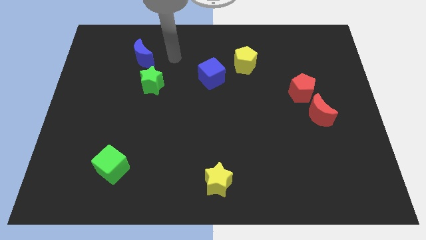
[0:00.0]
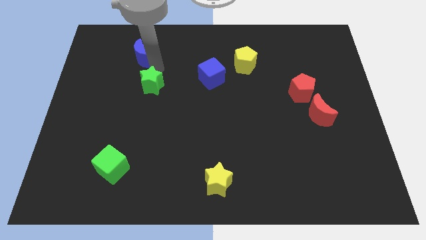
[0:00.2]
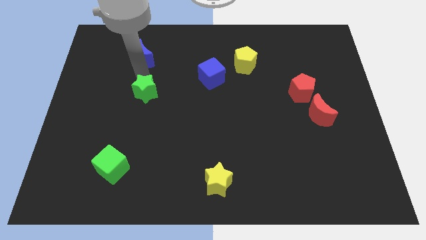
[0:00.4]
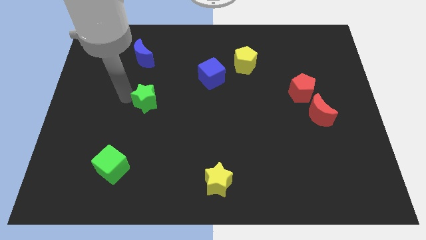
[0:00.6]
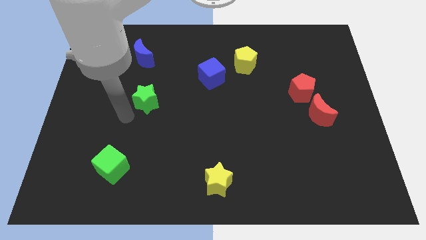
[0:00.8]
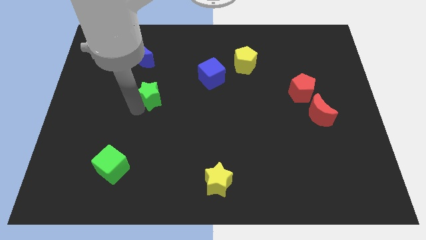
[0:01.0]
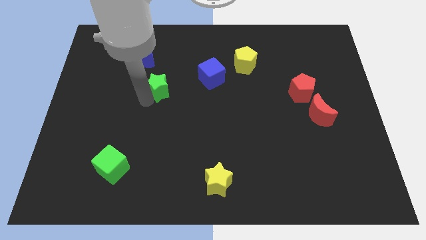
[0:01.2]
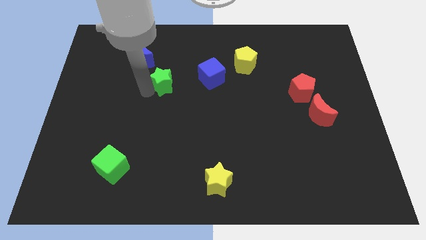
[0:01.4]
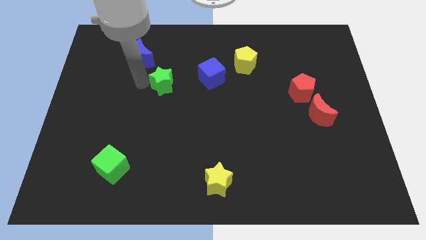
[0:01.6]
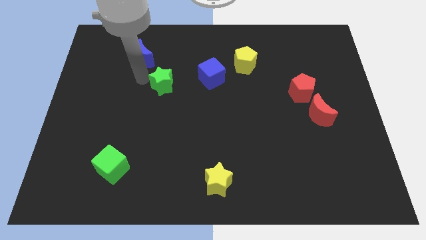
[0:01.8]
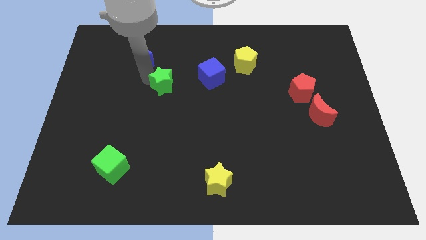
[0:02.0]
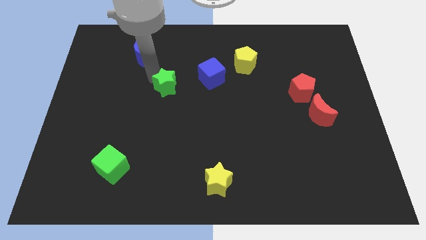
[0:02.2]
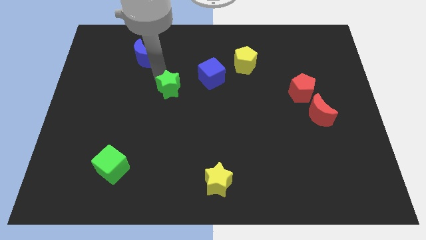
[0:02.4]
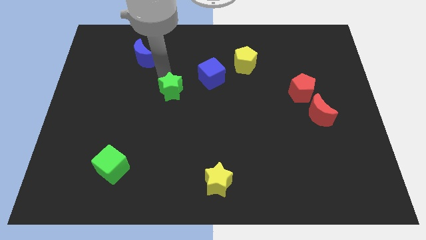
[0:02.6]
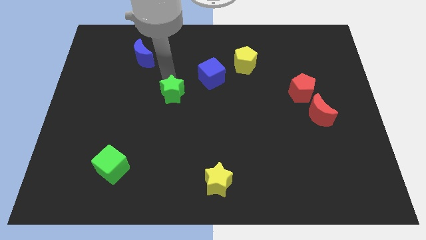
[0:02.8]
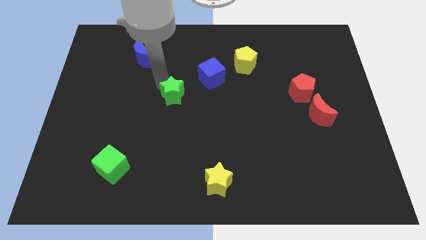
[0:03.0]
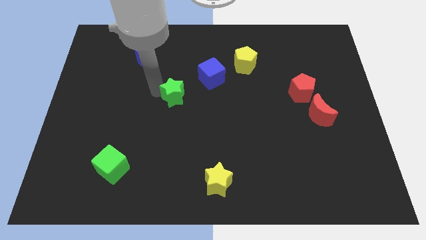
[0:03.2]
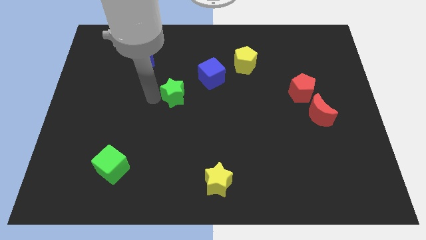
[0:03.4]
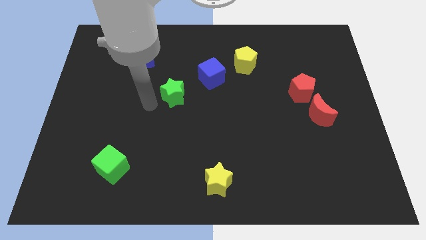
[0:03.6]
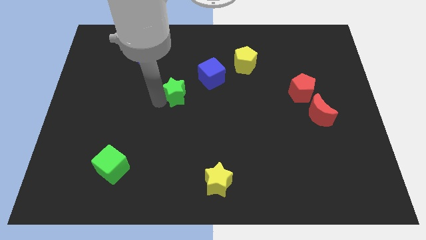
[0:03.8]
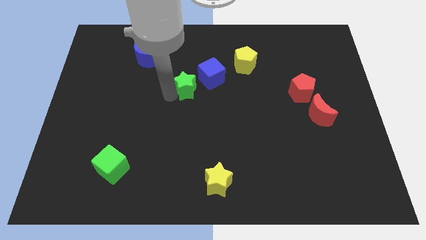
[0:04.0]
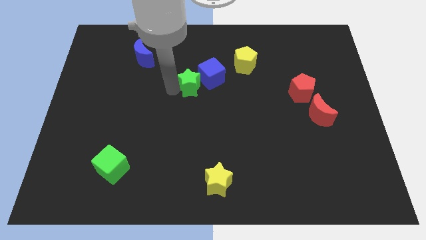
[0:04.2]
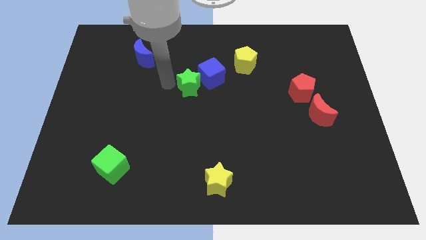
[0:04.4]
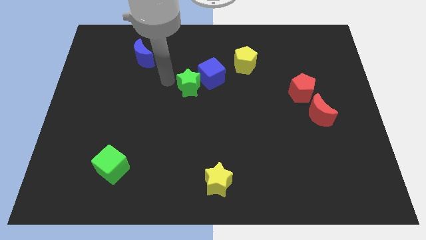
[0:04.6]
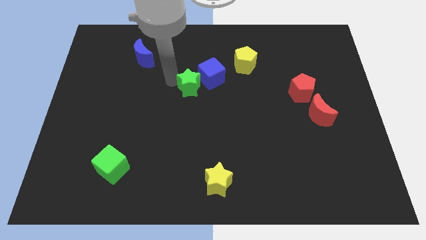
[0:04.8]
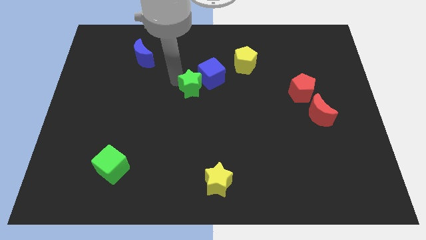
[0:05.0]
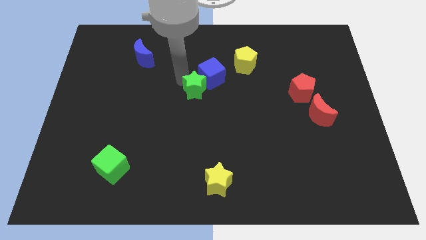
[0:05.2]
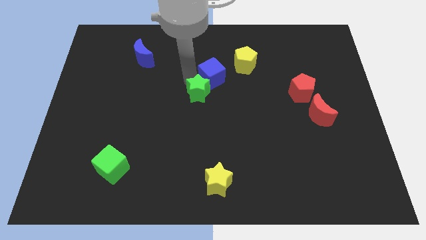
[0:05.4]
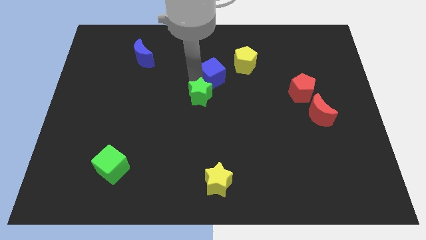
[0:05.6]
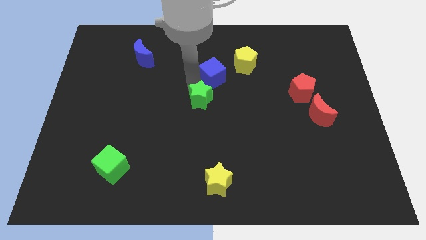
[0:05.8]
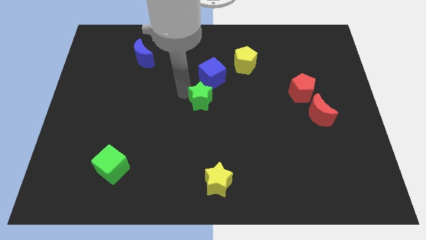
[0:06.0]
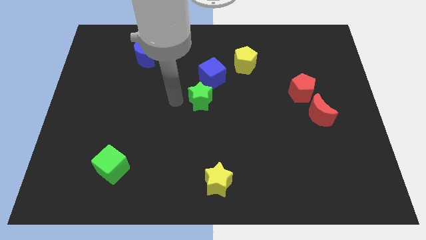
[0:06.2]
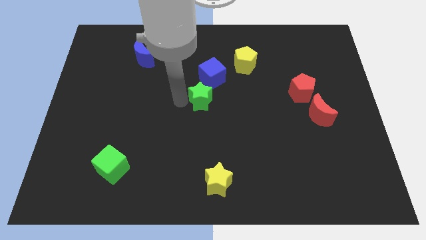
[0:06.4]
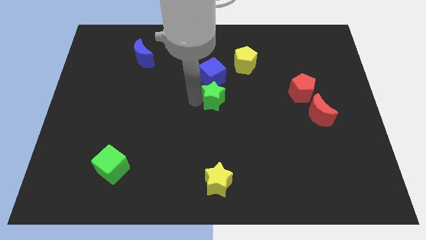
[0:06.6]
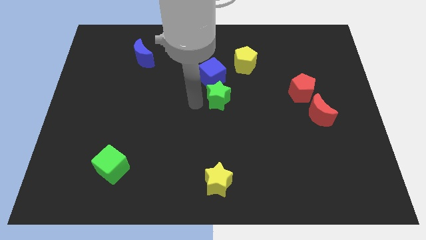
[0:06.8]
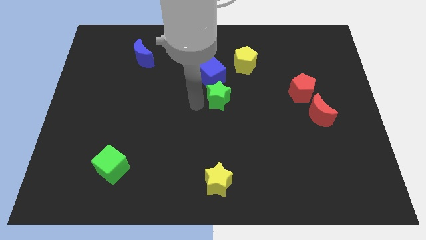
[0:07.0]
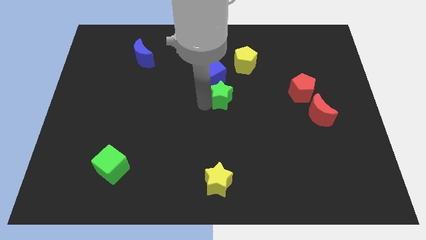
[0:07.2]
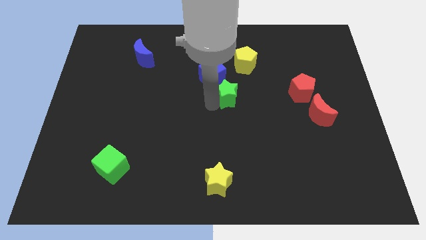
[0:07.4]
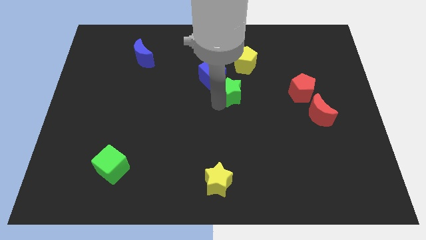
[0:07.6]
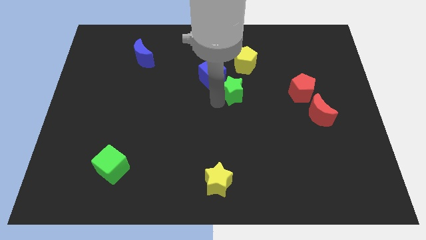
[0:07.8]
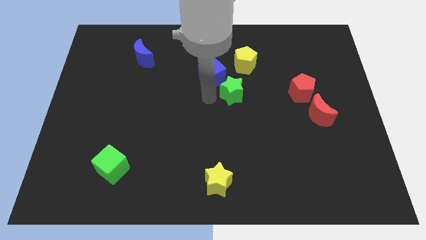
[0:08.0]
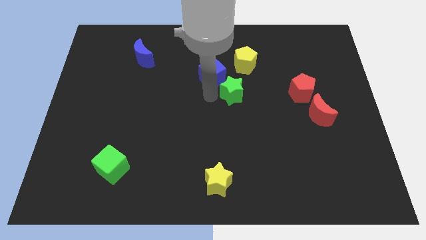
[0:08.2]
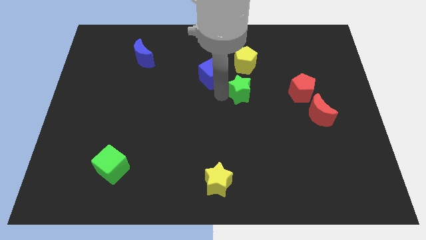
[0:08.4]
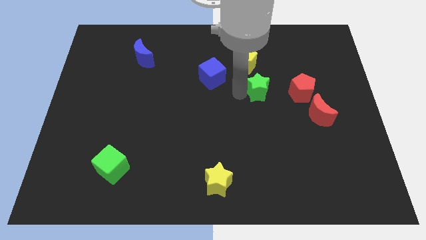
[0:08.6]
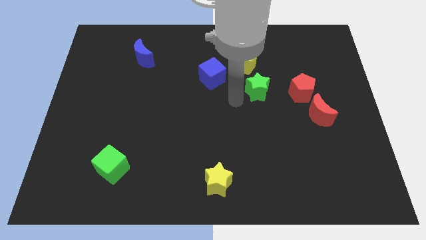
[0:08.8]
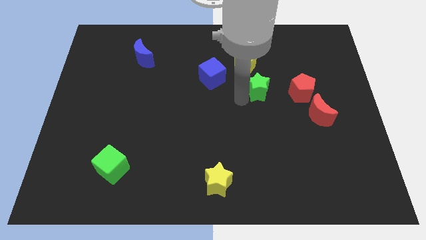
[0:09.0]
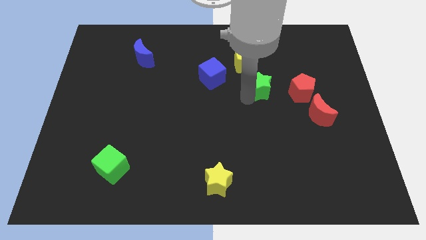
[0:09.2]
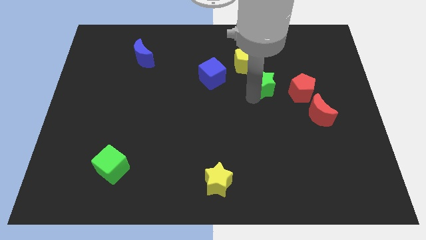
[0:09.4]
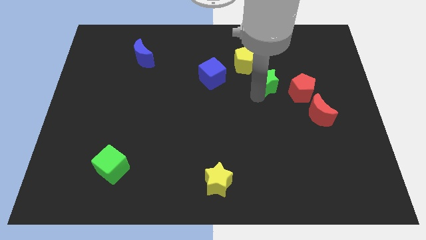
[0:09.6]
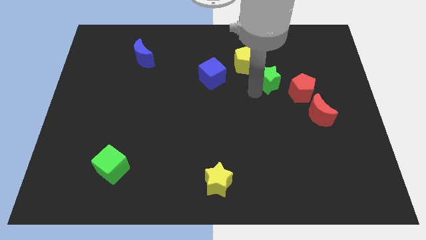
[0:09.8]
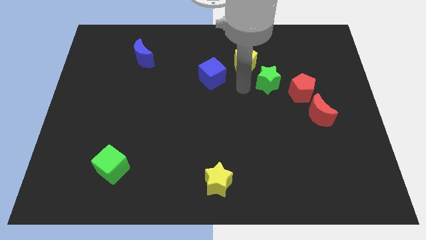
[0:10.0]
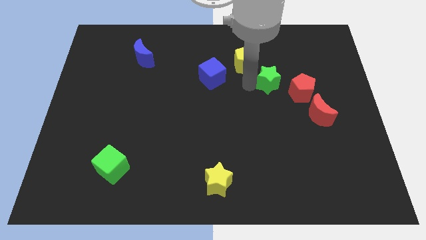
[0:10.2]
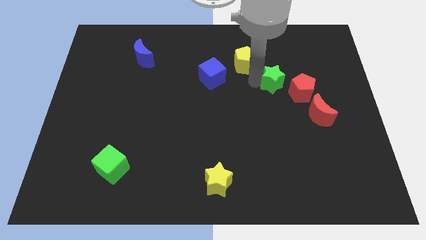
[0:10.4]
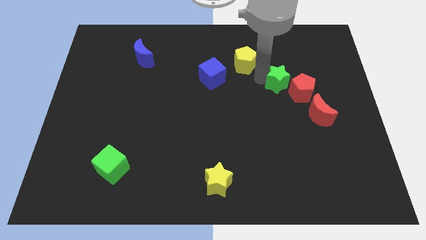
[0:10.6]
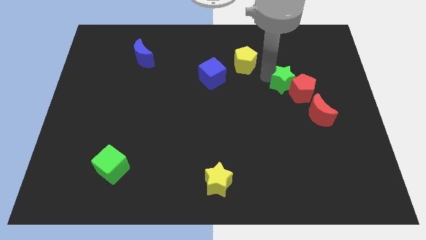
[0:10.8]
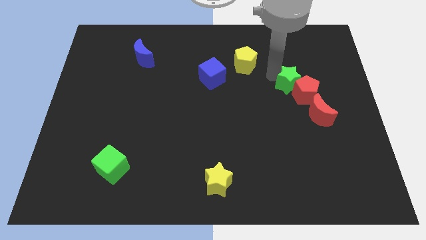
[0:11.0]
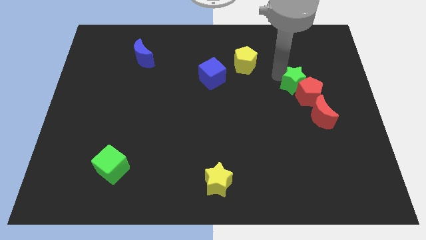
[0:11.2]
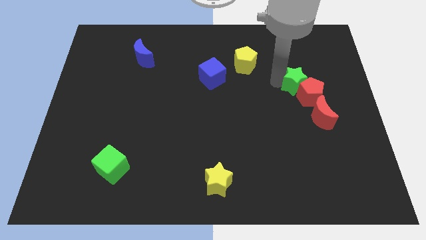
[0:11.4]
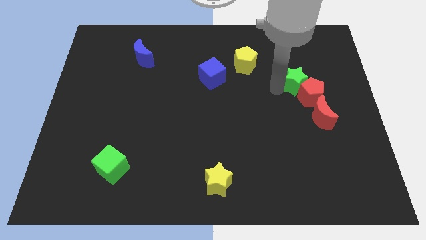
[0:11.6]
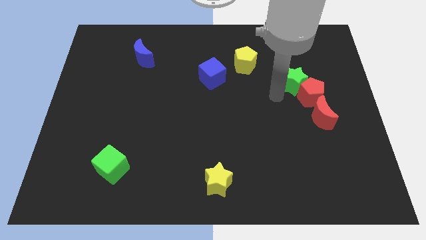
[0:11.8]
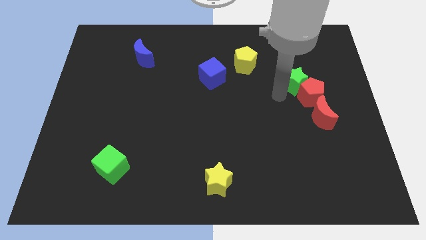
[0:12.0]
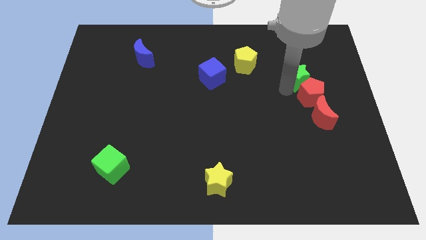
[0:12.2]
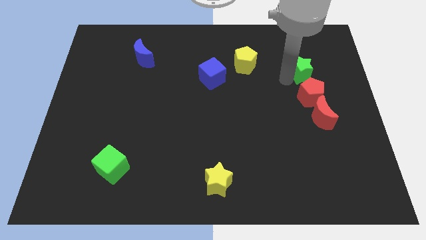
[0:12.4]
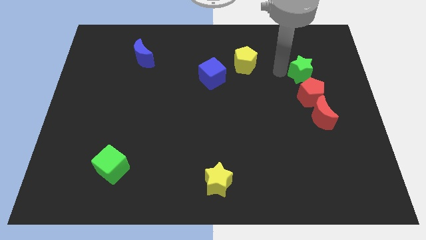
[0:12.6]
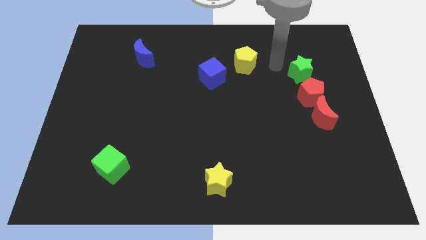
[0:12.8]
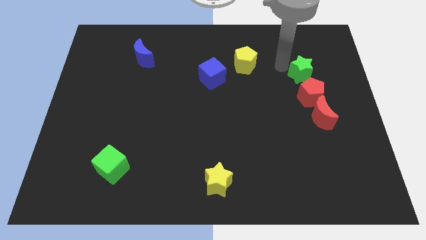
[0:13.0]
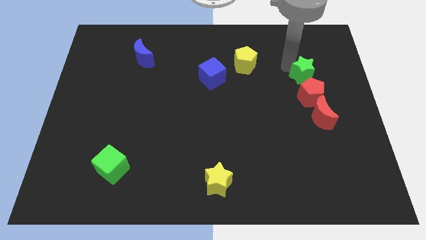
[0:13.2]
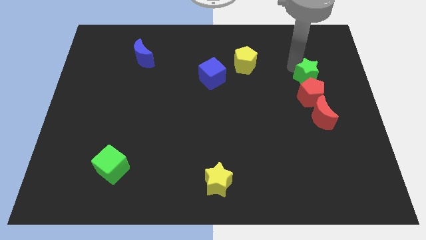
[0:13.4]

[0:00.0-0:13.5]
put the green star to the top right of the red pentagon

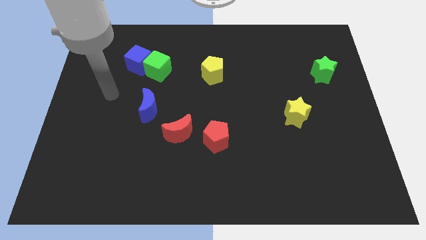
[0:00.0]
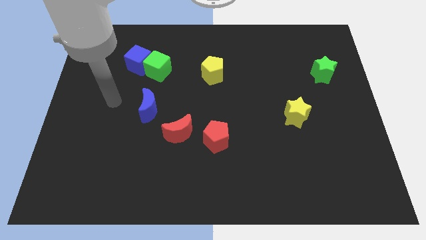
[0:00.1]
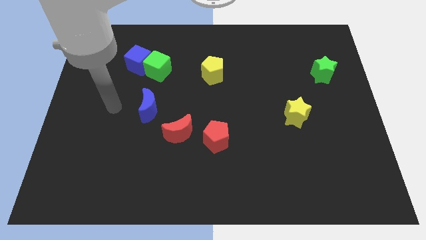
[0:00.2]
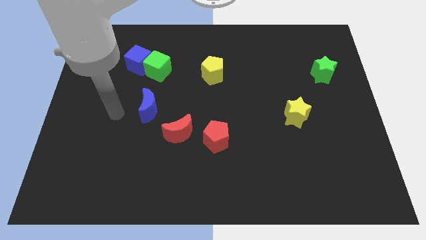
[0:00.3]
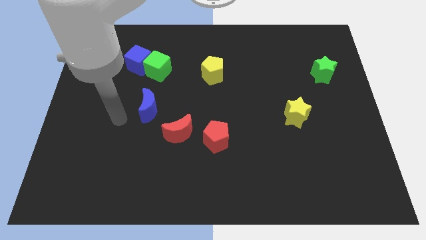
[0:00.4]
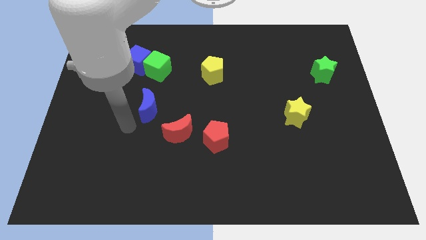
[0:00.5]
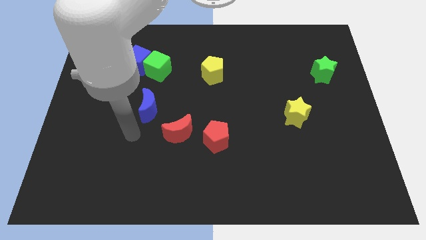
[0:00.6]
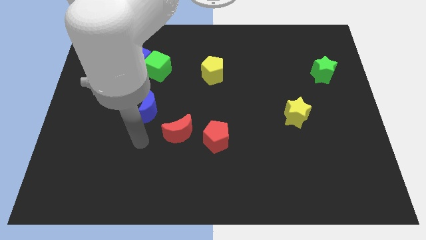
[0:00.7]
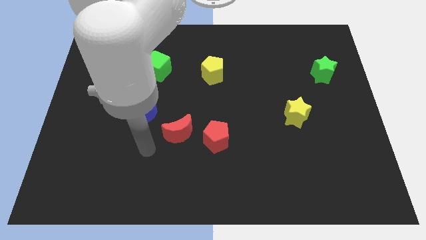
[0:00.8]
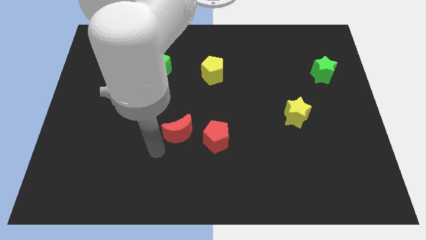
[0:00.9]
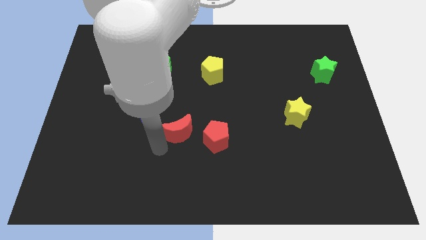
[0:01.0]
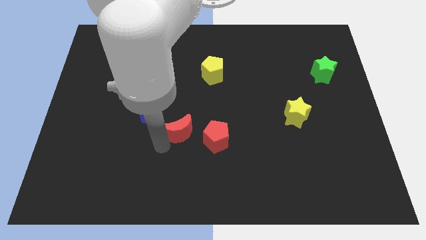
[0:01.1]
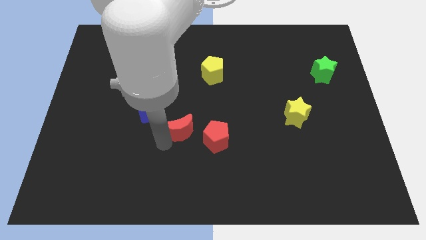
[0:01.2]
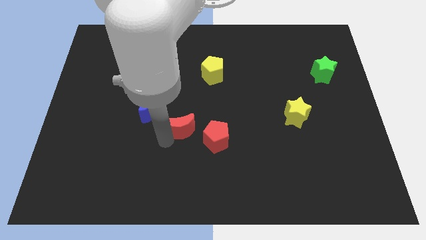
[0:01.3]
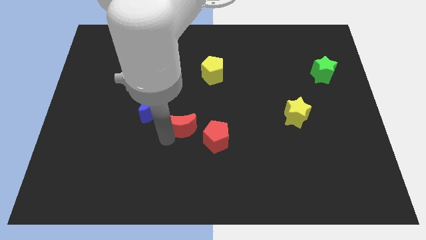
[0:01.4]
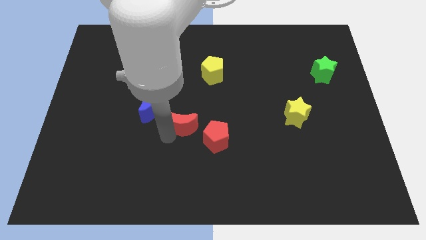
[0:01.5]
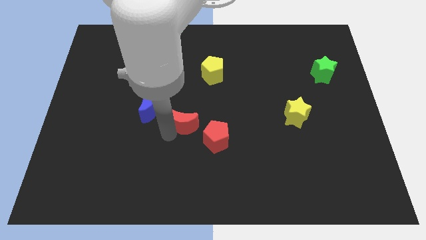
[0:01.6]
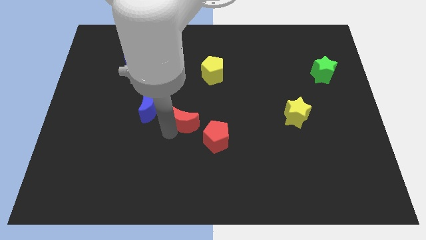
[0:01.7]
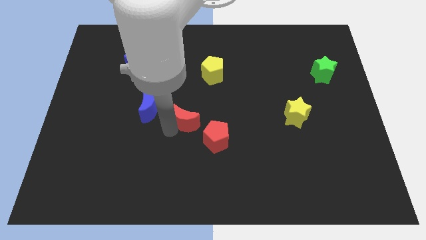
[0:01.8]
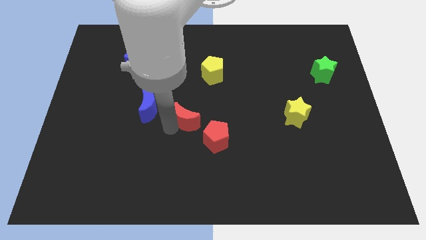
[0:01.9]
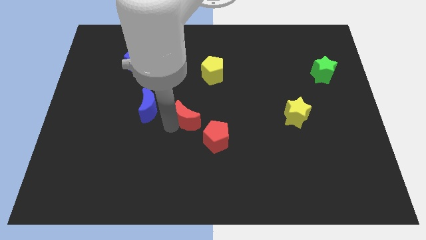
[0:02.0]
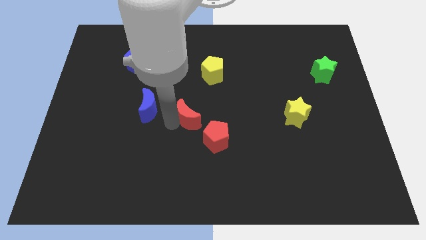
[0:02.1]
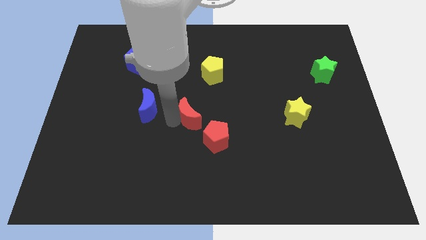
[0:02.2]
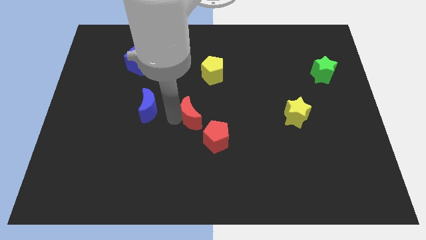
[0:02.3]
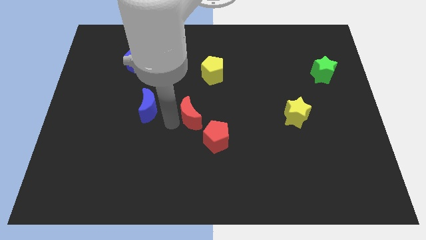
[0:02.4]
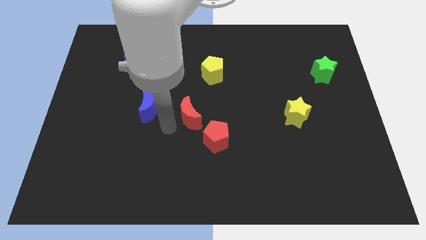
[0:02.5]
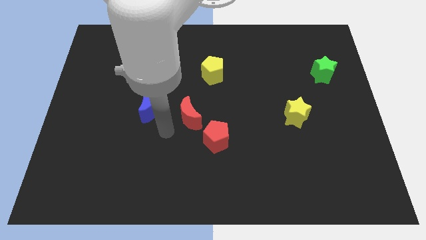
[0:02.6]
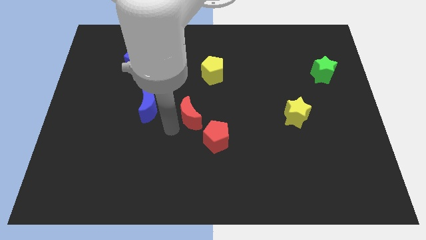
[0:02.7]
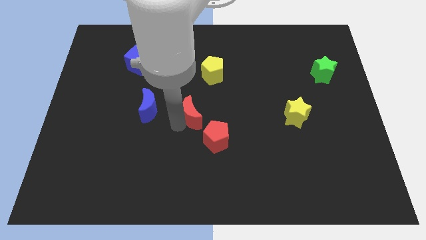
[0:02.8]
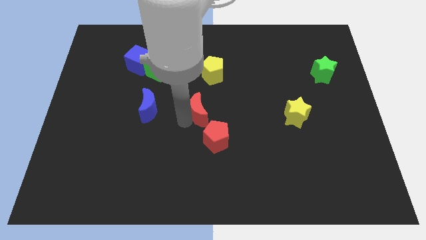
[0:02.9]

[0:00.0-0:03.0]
push the red moon to the top of the red pentagon
